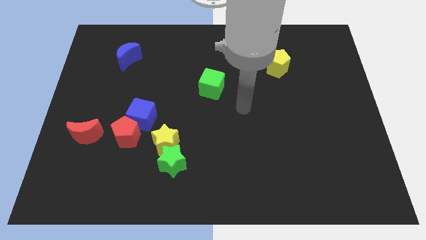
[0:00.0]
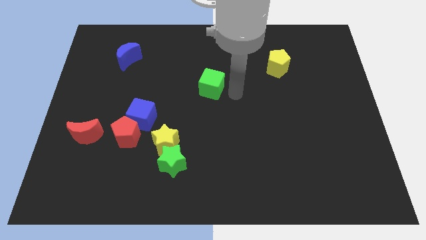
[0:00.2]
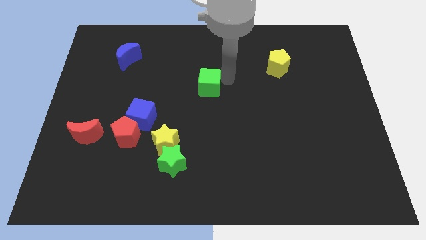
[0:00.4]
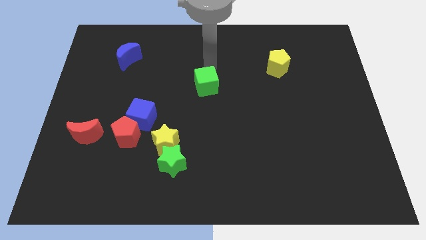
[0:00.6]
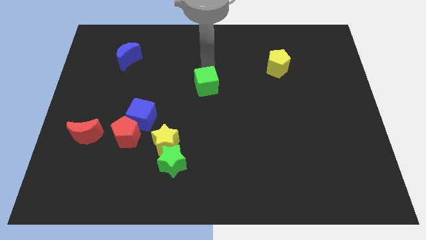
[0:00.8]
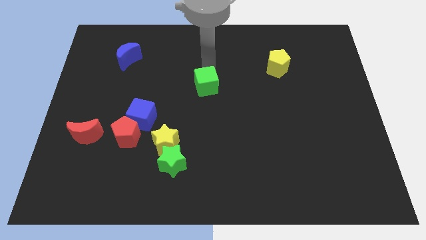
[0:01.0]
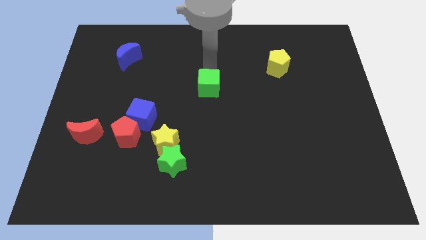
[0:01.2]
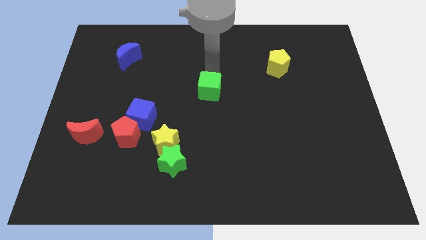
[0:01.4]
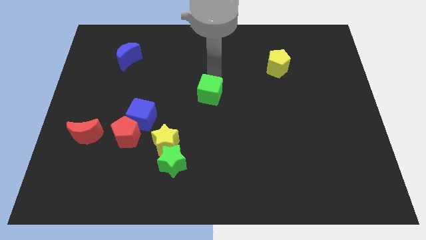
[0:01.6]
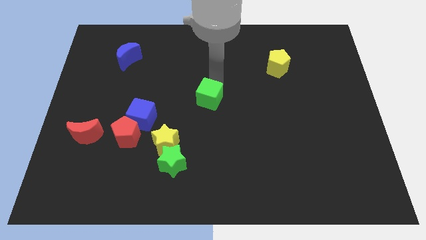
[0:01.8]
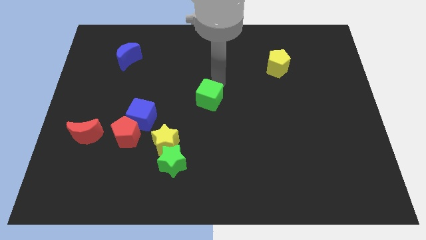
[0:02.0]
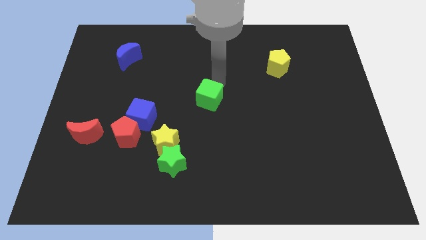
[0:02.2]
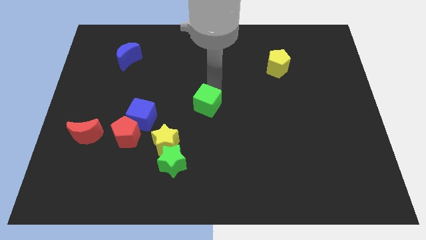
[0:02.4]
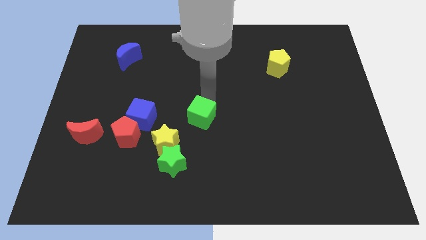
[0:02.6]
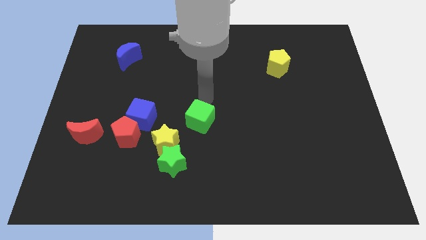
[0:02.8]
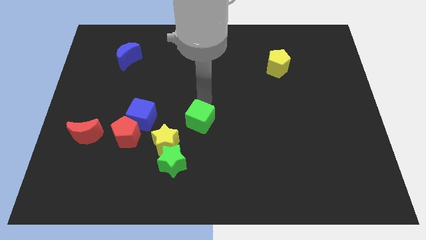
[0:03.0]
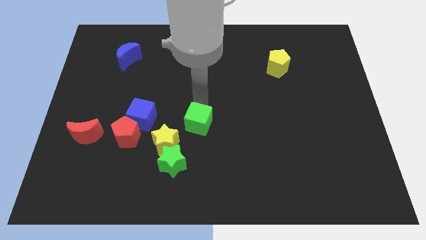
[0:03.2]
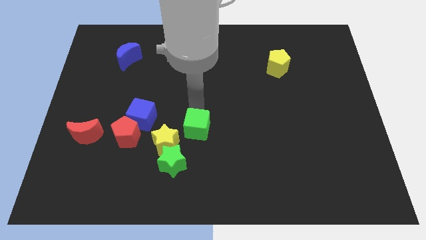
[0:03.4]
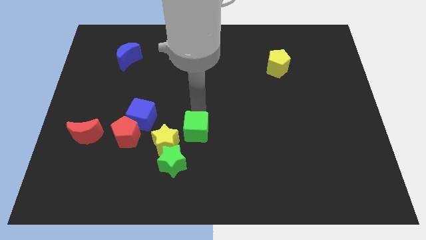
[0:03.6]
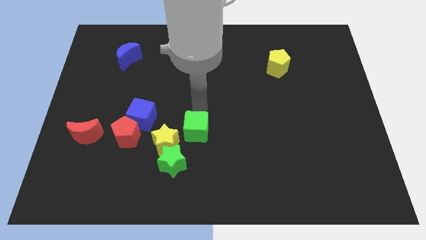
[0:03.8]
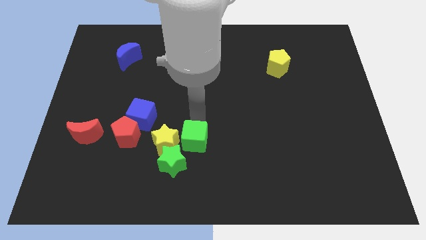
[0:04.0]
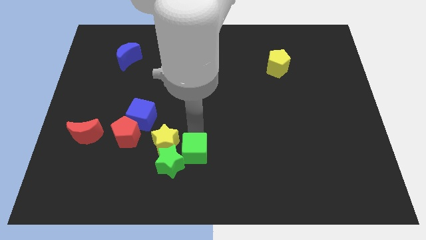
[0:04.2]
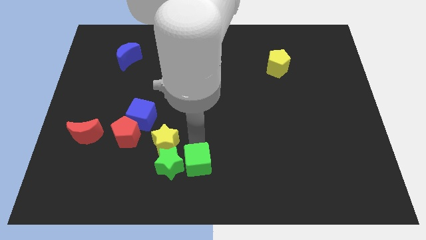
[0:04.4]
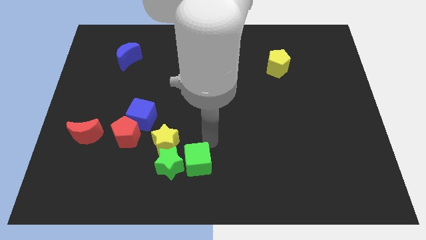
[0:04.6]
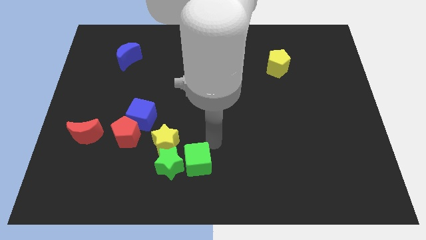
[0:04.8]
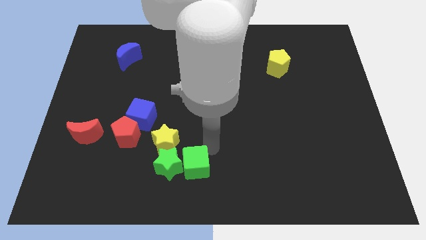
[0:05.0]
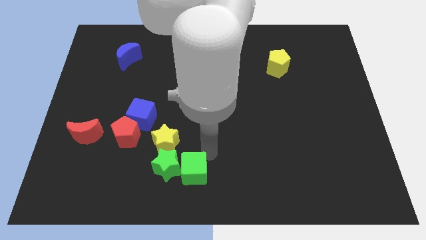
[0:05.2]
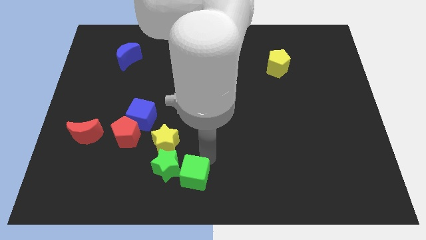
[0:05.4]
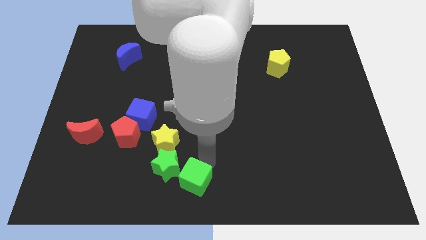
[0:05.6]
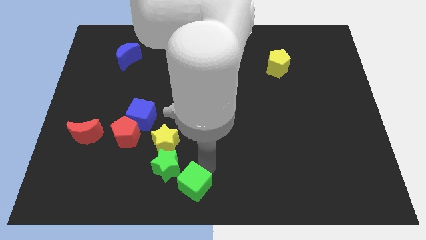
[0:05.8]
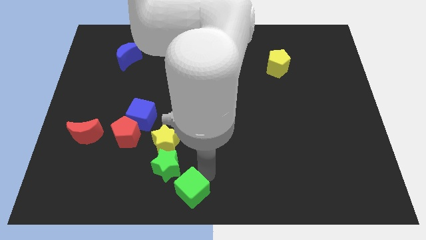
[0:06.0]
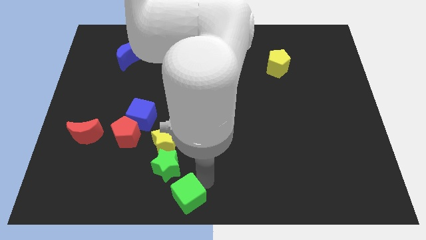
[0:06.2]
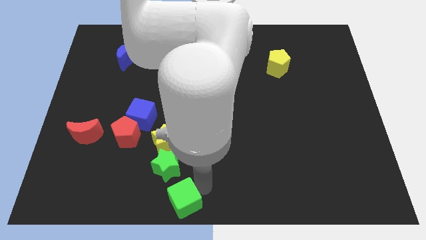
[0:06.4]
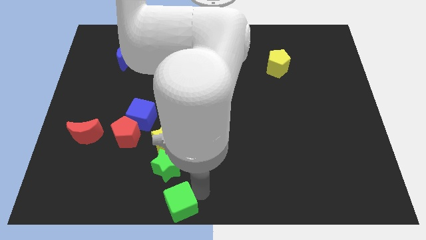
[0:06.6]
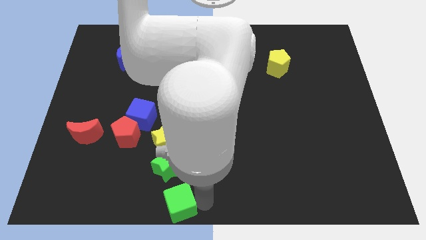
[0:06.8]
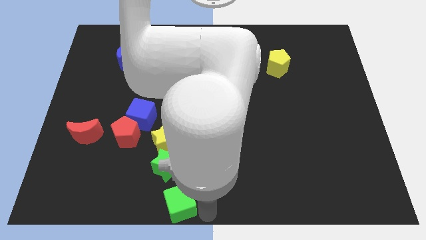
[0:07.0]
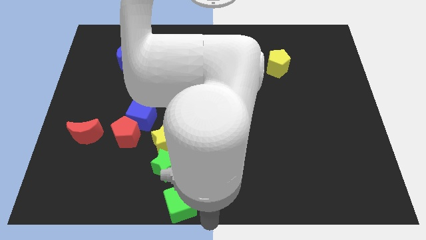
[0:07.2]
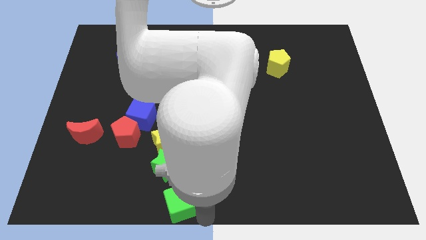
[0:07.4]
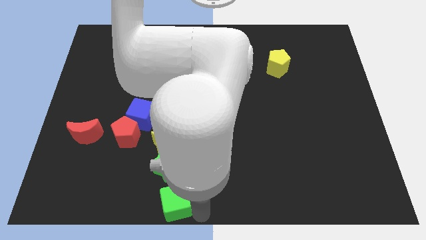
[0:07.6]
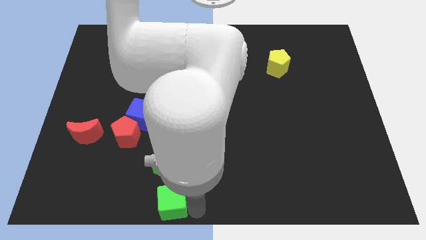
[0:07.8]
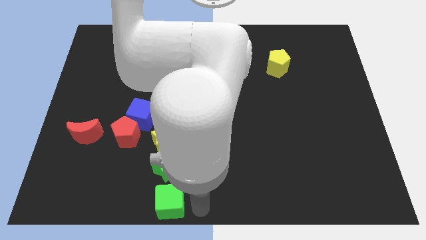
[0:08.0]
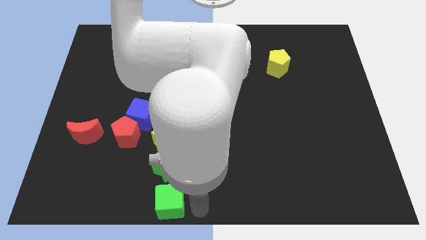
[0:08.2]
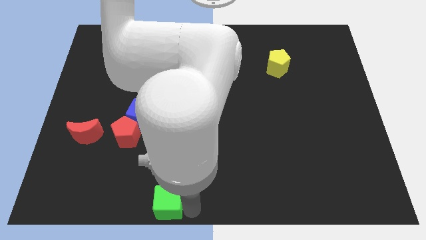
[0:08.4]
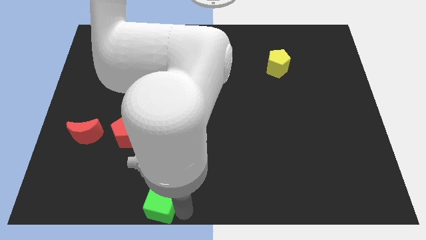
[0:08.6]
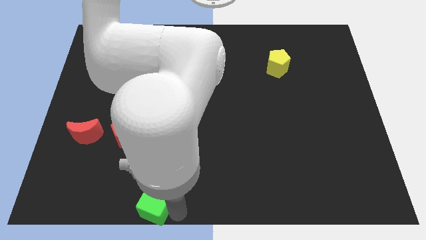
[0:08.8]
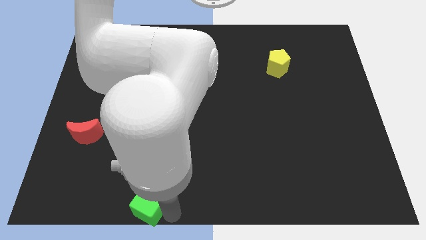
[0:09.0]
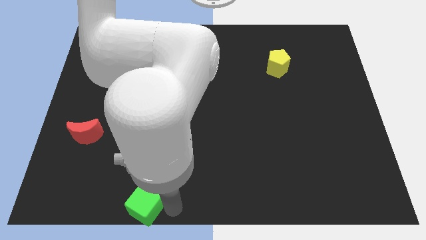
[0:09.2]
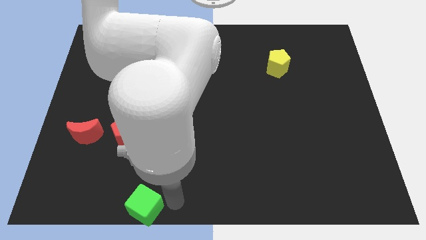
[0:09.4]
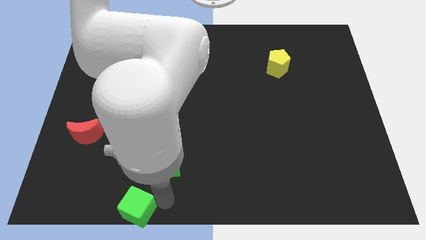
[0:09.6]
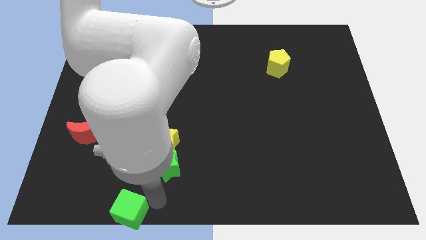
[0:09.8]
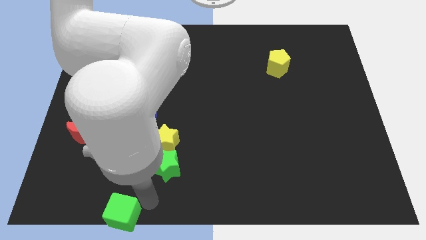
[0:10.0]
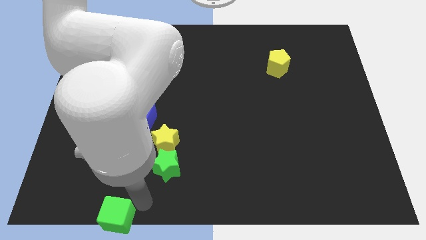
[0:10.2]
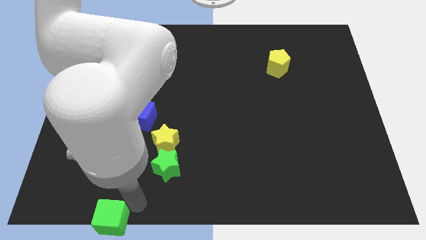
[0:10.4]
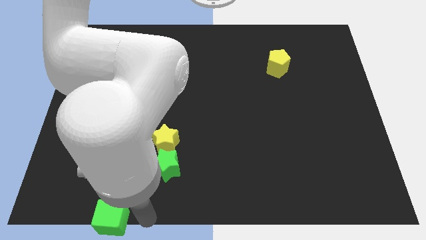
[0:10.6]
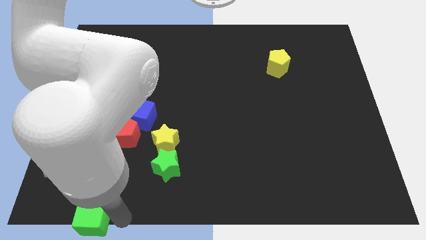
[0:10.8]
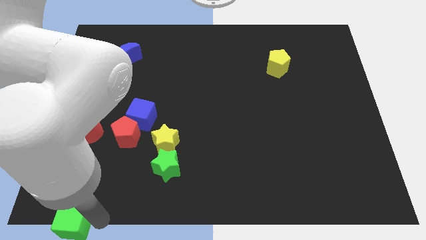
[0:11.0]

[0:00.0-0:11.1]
move the green cube to the bottom left

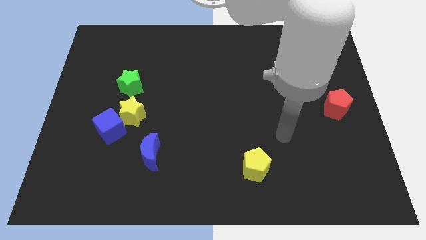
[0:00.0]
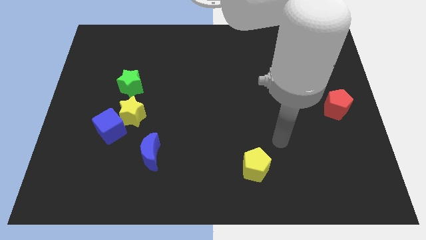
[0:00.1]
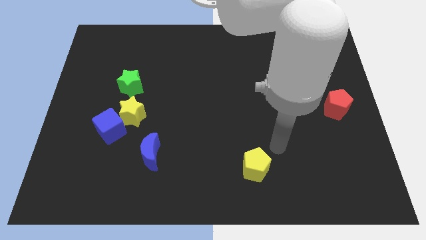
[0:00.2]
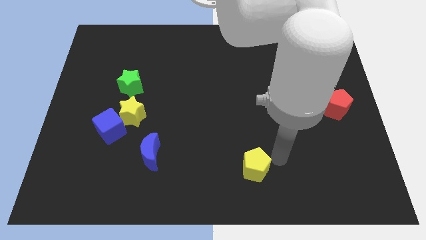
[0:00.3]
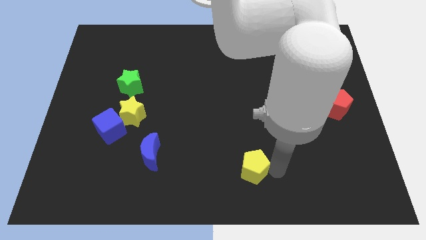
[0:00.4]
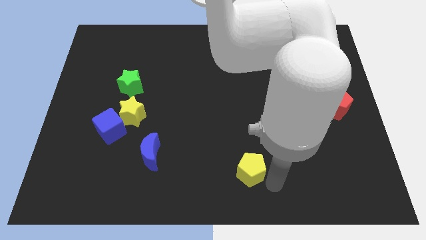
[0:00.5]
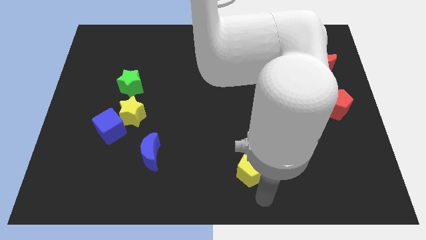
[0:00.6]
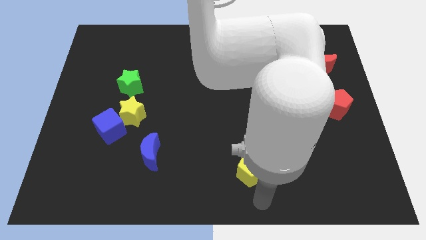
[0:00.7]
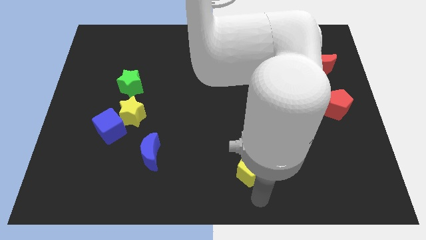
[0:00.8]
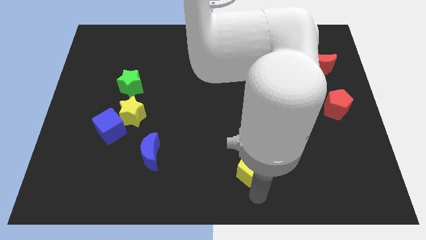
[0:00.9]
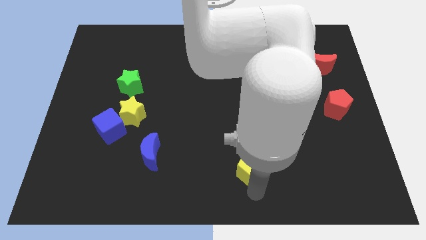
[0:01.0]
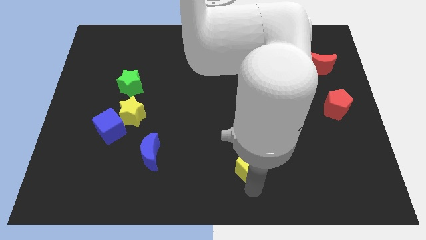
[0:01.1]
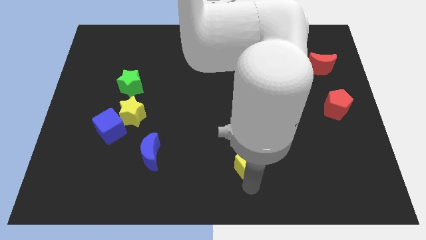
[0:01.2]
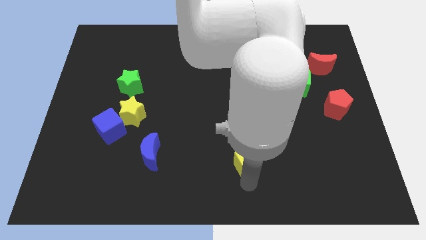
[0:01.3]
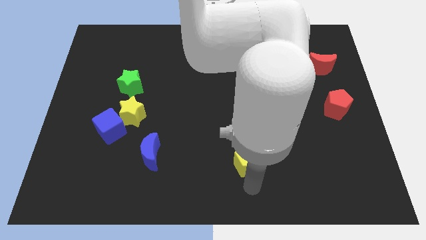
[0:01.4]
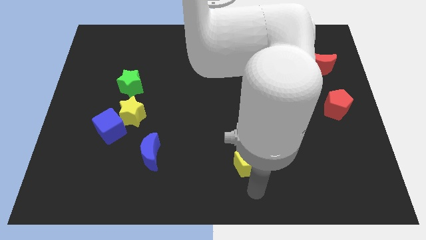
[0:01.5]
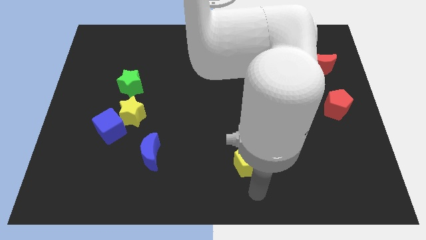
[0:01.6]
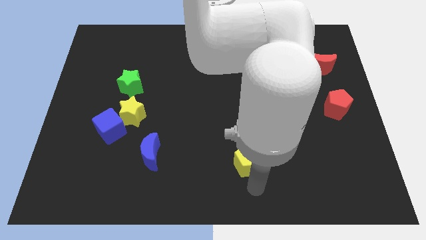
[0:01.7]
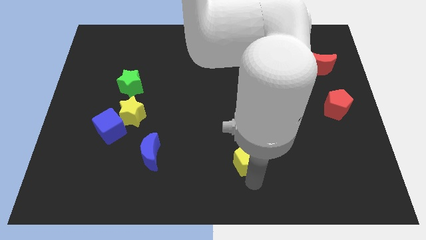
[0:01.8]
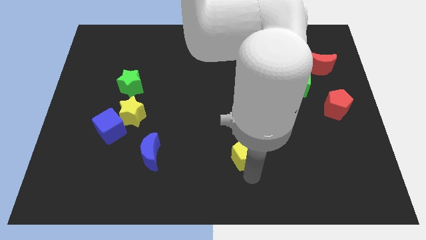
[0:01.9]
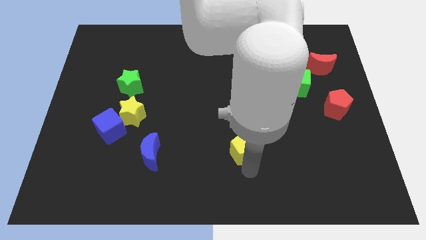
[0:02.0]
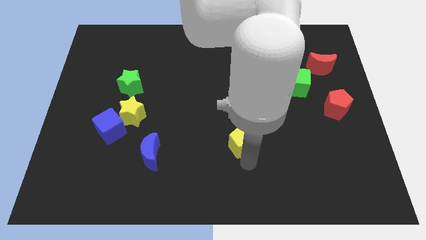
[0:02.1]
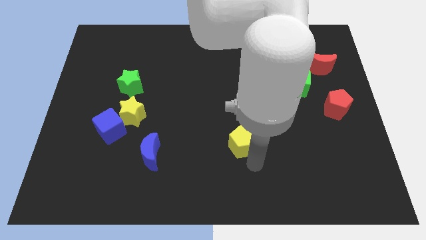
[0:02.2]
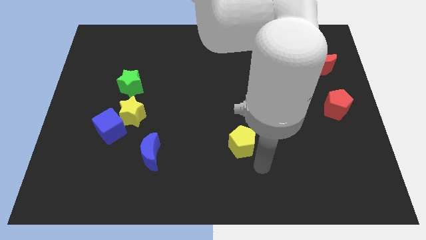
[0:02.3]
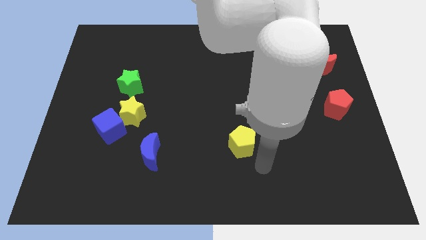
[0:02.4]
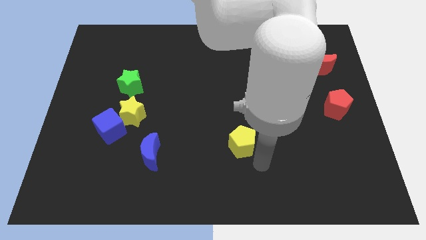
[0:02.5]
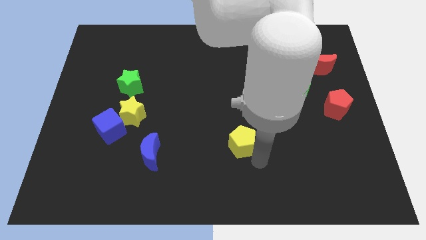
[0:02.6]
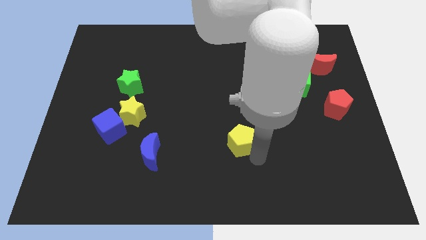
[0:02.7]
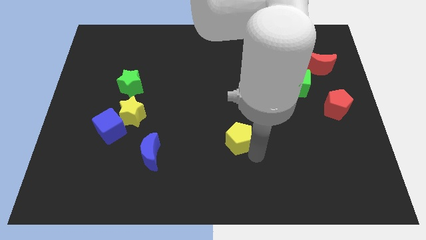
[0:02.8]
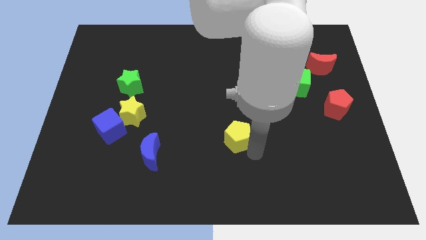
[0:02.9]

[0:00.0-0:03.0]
move the yellow pentagon to the middle
